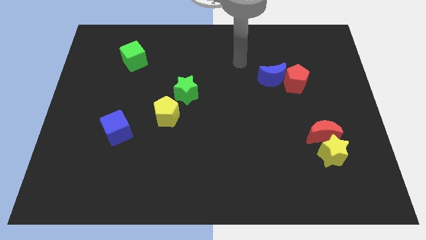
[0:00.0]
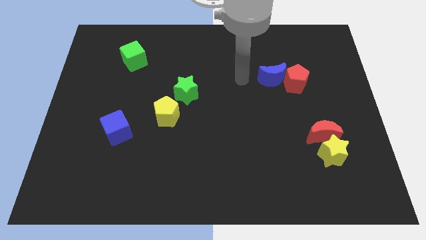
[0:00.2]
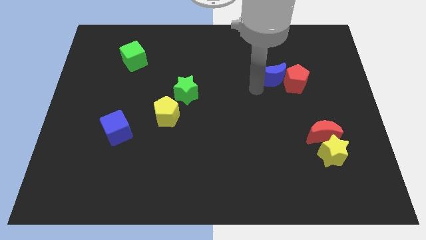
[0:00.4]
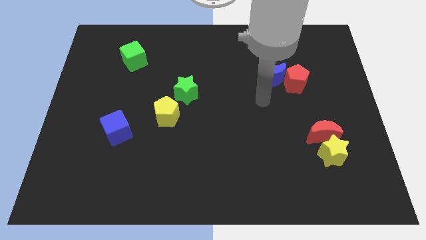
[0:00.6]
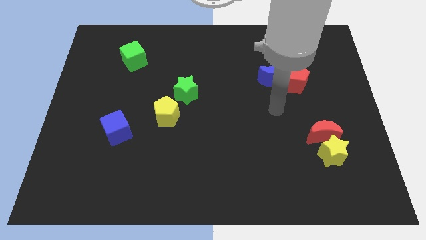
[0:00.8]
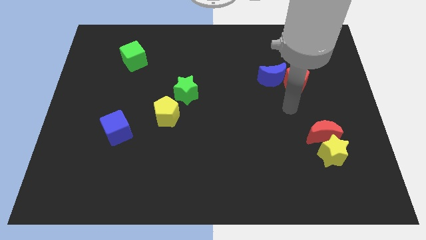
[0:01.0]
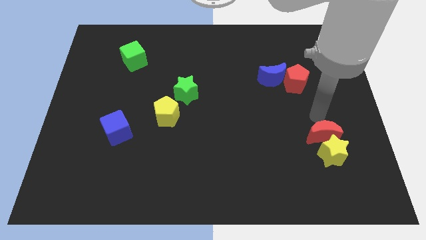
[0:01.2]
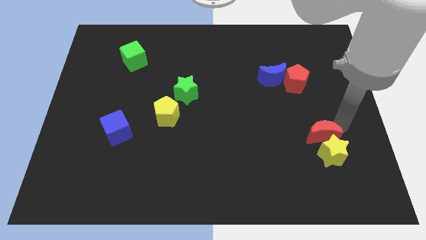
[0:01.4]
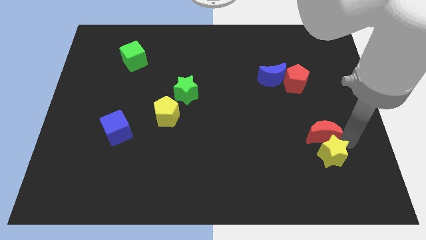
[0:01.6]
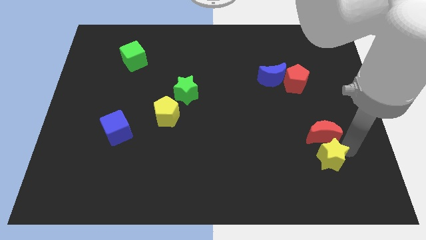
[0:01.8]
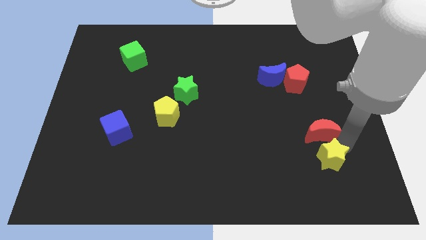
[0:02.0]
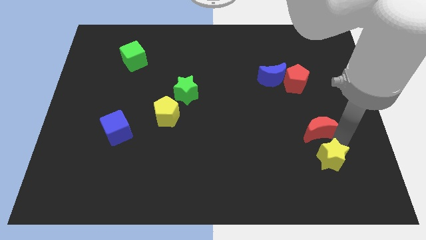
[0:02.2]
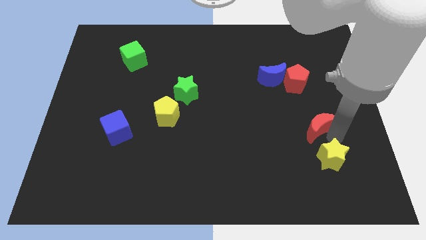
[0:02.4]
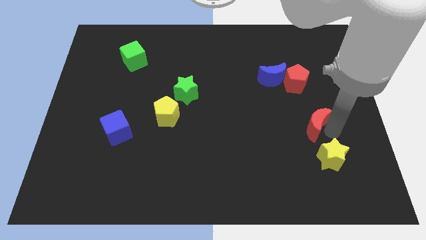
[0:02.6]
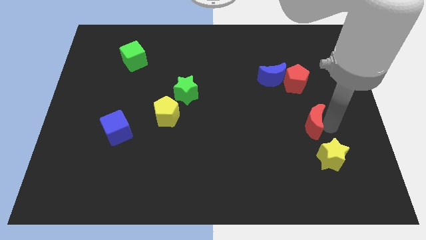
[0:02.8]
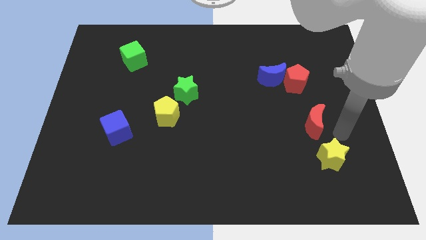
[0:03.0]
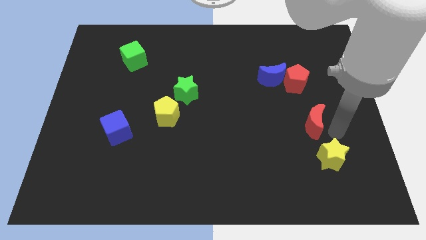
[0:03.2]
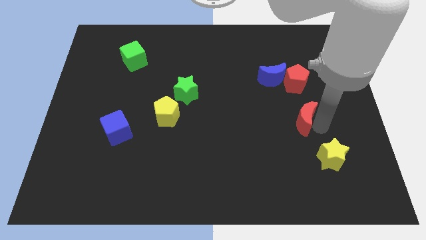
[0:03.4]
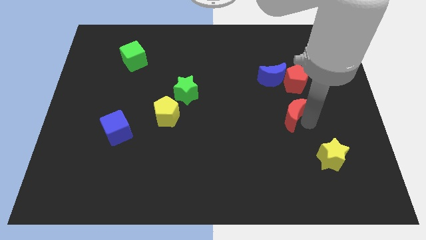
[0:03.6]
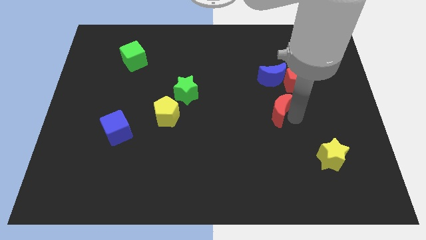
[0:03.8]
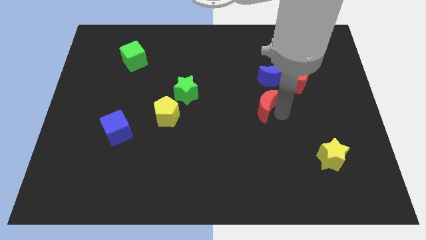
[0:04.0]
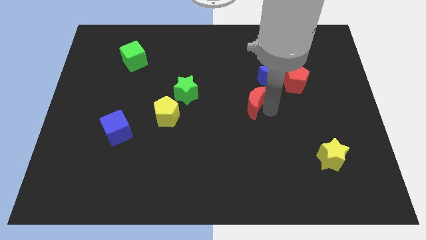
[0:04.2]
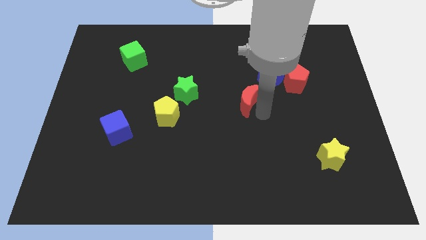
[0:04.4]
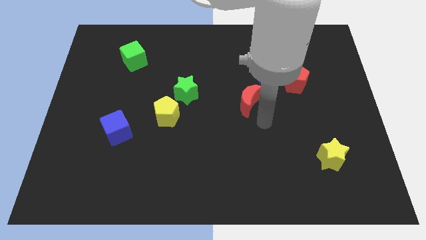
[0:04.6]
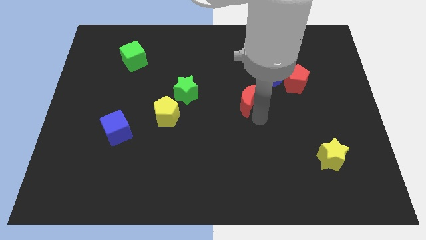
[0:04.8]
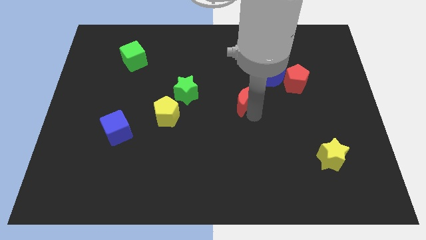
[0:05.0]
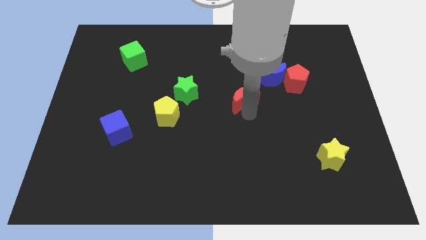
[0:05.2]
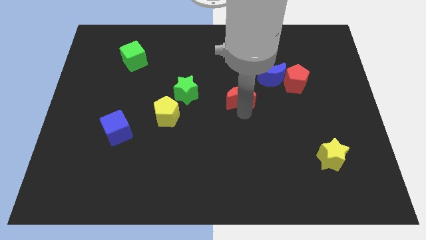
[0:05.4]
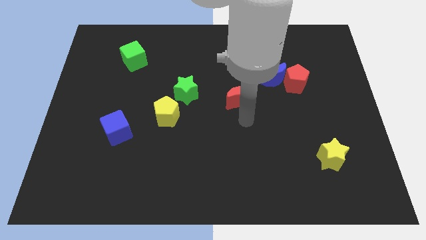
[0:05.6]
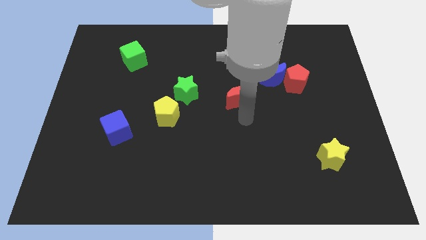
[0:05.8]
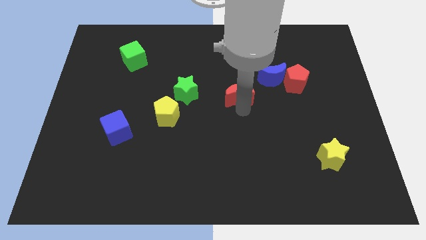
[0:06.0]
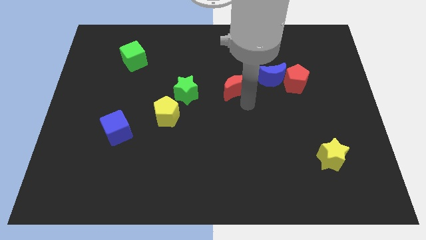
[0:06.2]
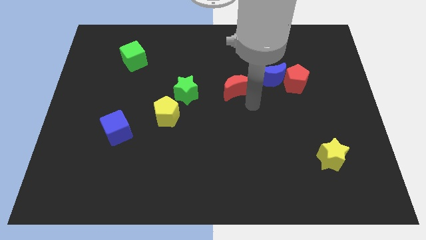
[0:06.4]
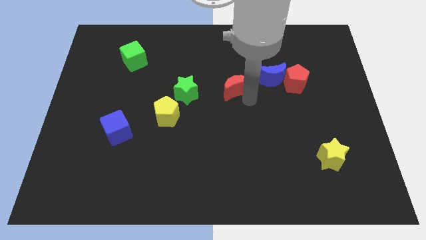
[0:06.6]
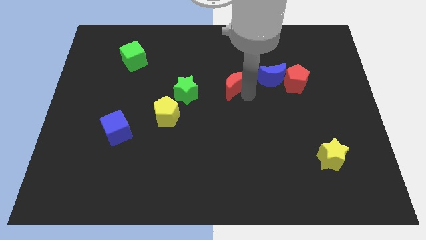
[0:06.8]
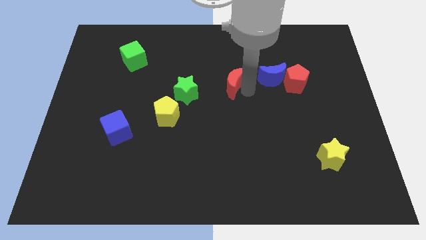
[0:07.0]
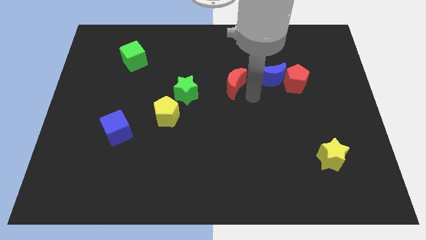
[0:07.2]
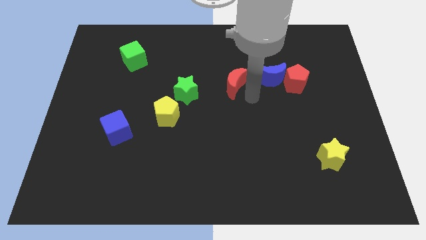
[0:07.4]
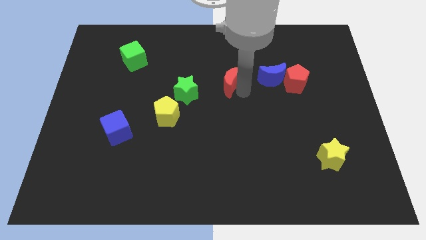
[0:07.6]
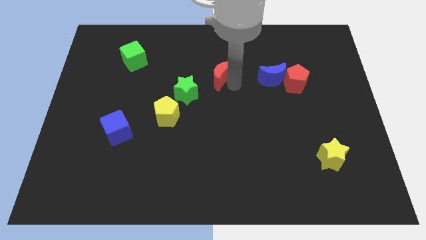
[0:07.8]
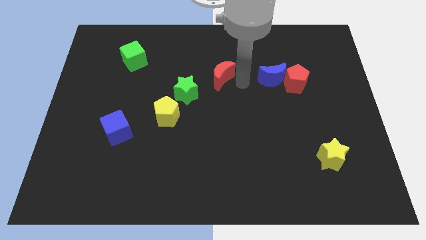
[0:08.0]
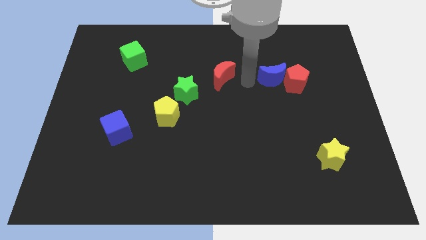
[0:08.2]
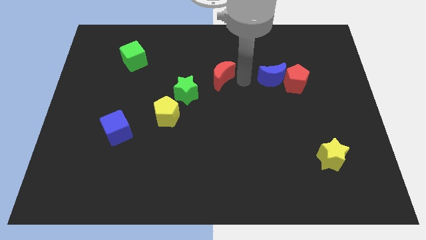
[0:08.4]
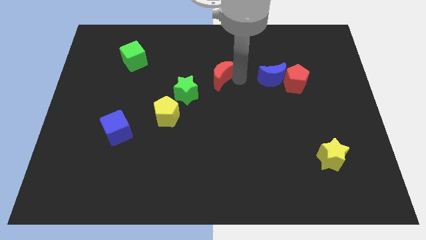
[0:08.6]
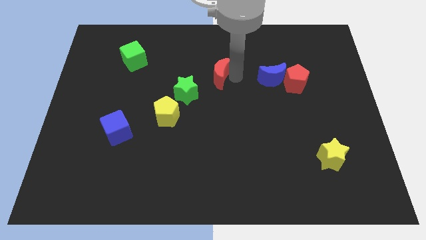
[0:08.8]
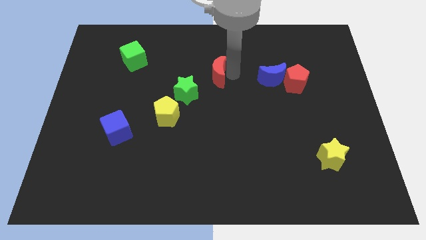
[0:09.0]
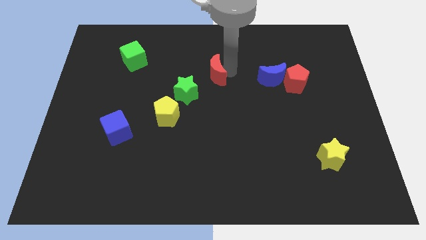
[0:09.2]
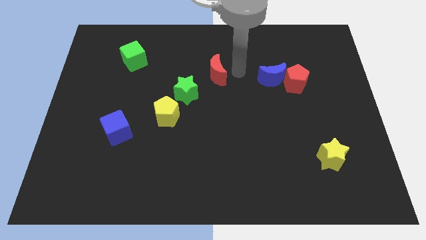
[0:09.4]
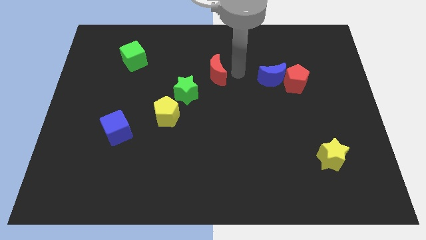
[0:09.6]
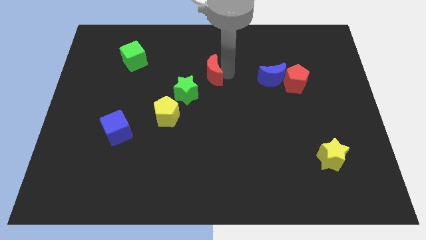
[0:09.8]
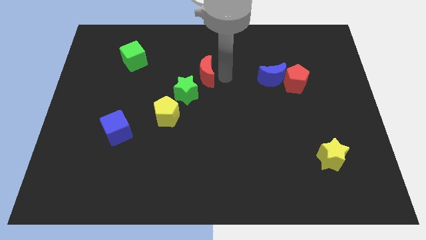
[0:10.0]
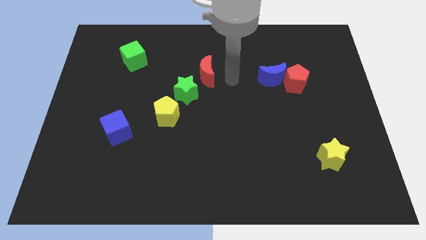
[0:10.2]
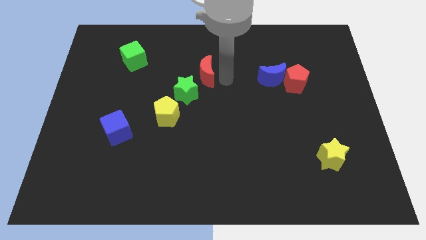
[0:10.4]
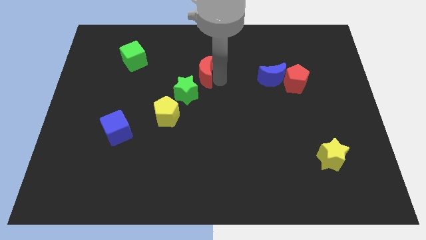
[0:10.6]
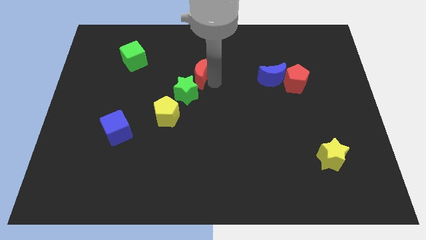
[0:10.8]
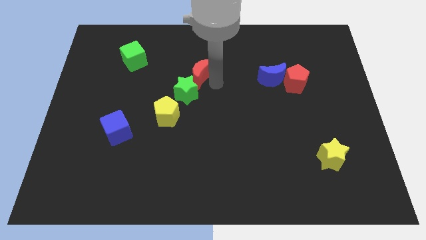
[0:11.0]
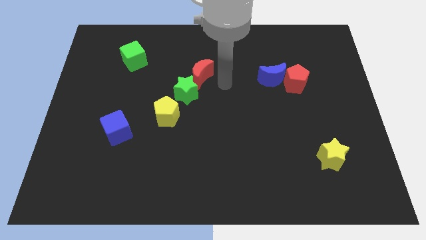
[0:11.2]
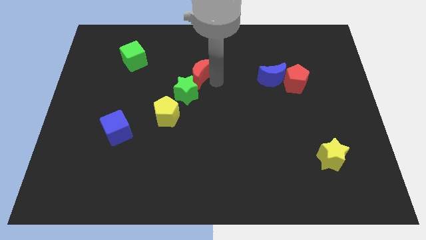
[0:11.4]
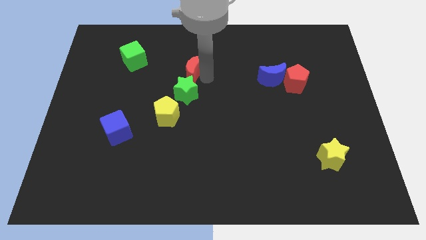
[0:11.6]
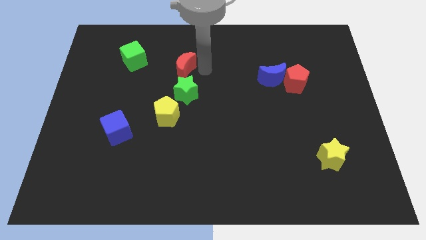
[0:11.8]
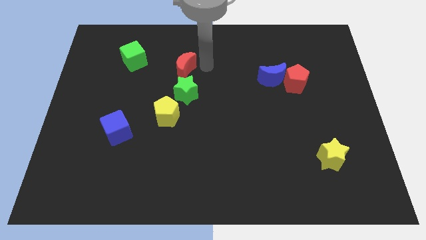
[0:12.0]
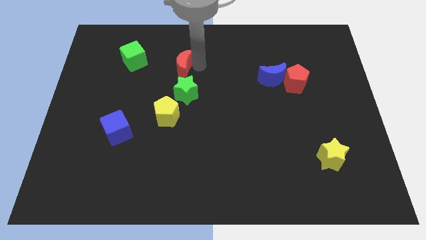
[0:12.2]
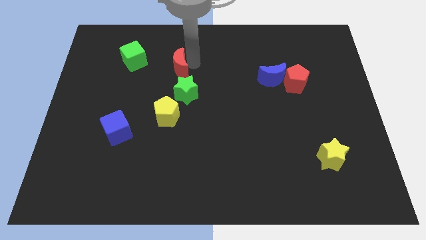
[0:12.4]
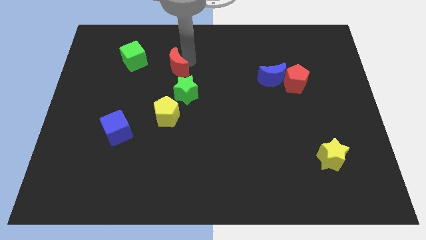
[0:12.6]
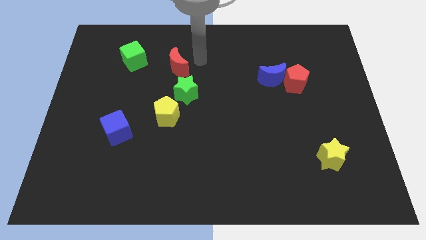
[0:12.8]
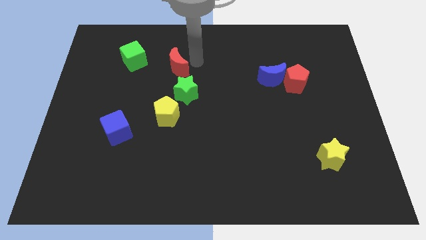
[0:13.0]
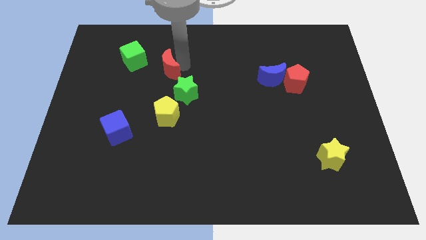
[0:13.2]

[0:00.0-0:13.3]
push the red moon to the bottom right side of the green cube
